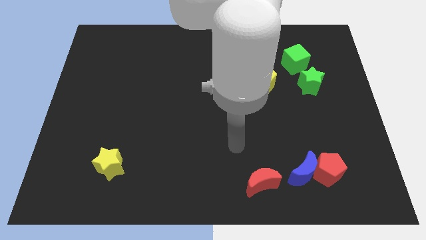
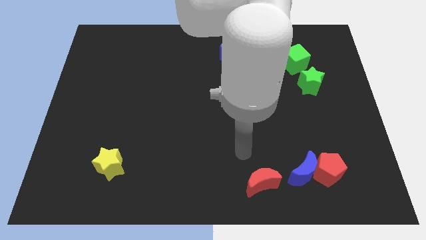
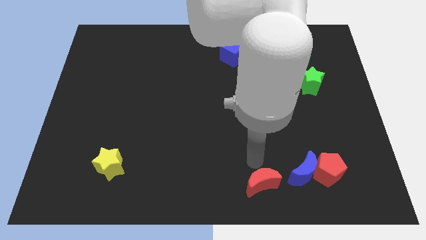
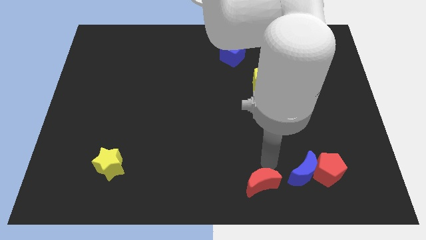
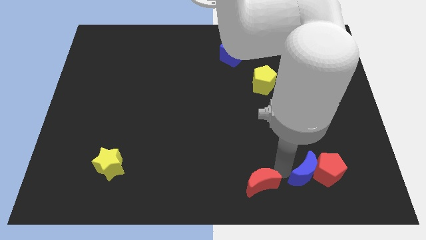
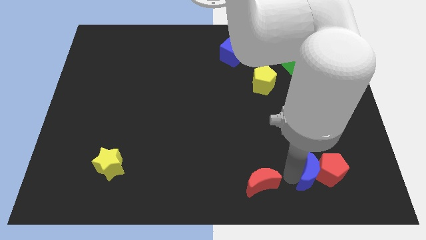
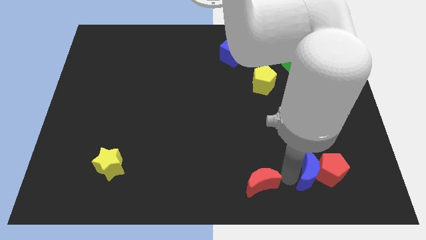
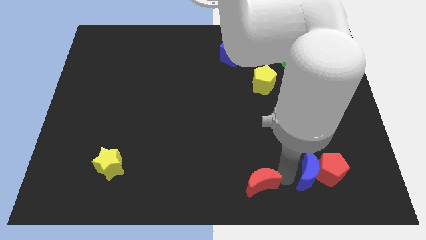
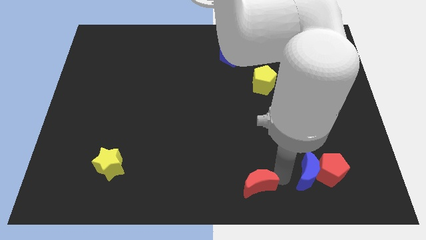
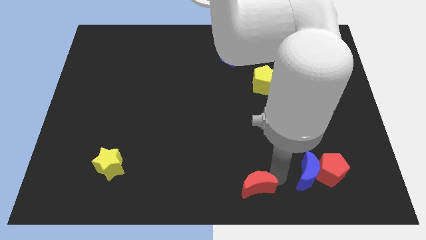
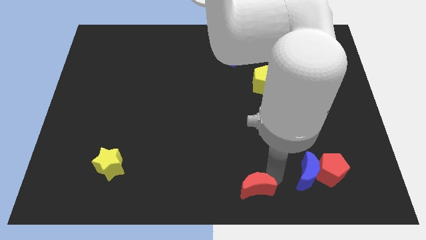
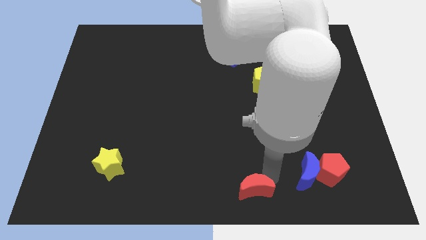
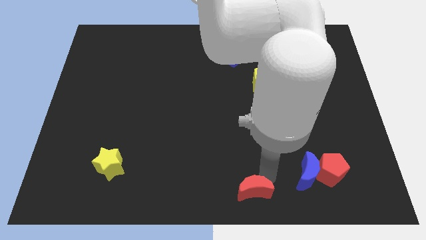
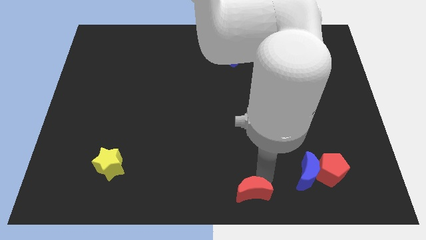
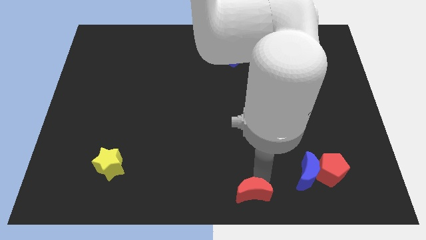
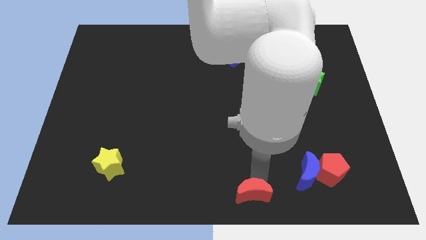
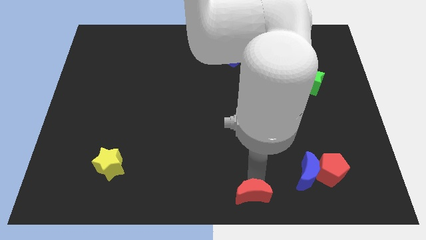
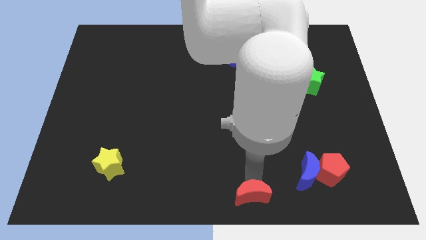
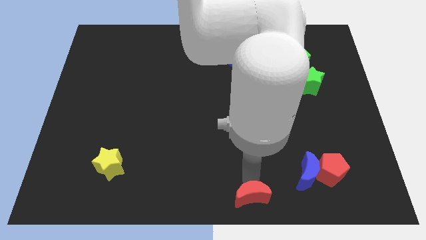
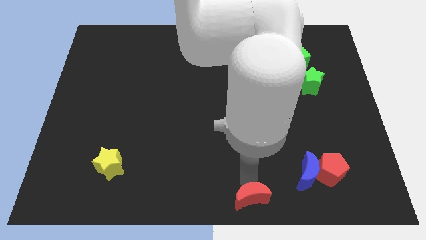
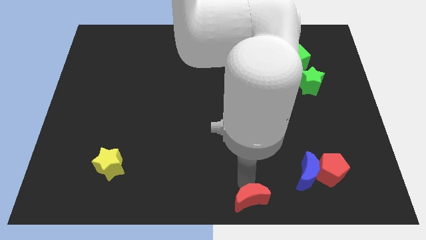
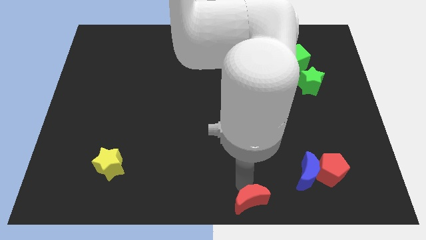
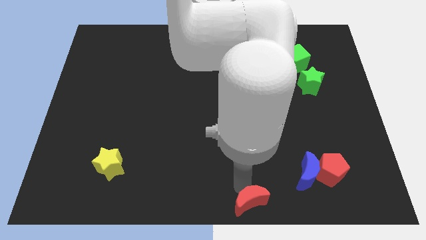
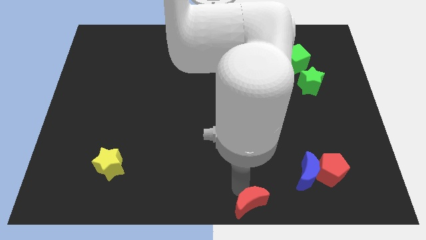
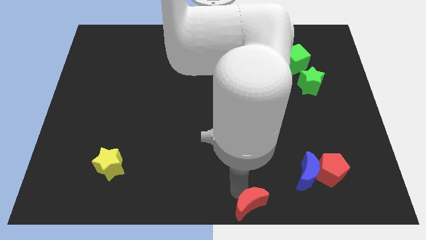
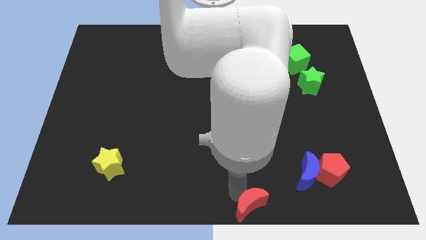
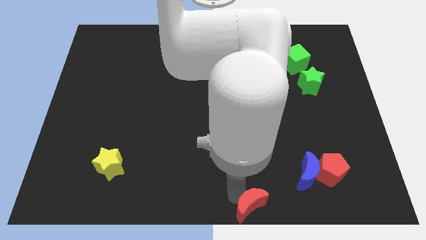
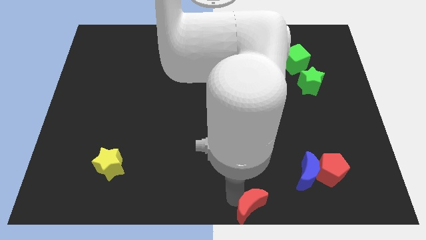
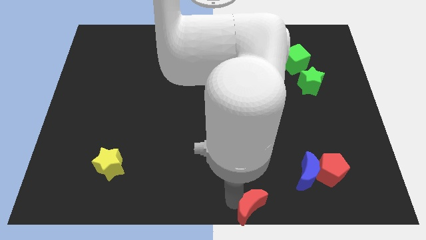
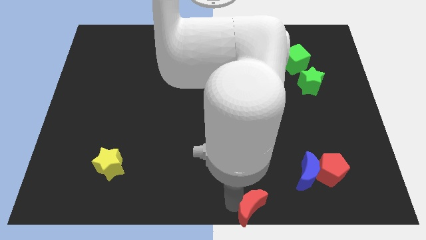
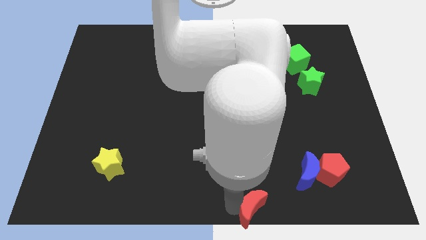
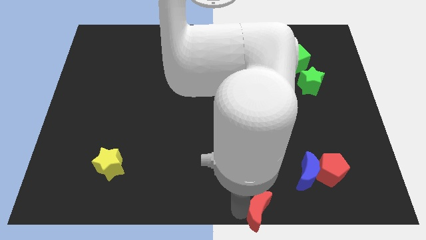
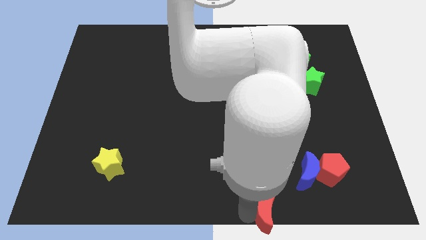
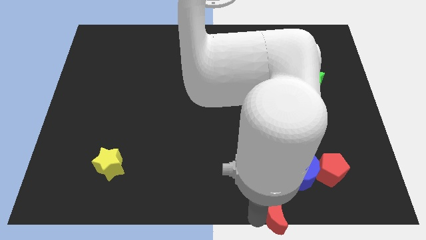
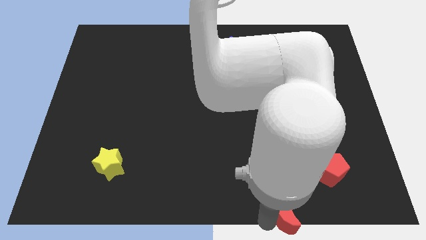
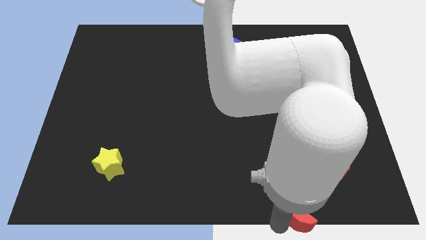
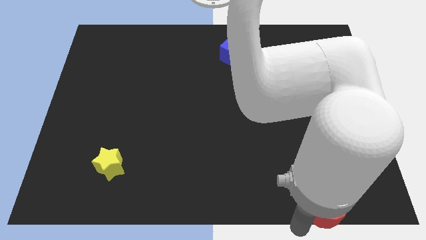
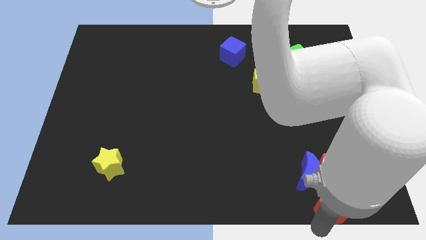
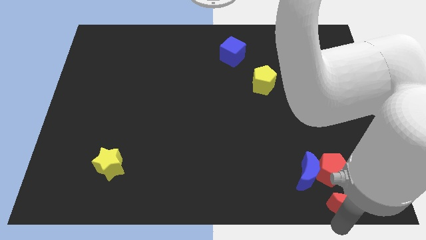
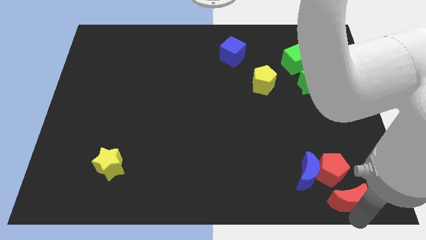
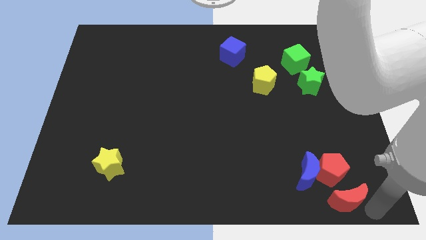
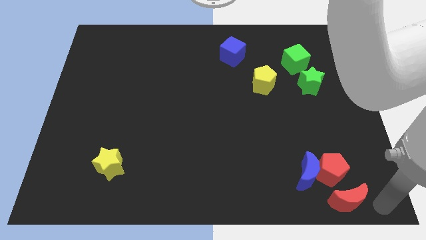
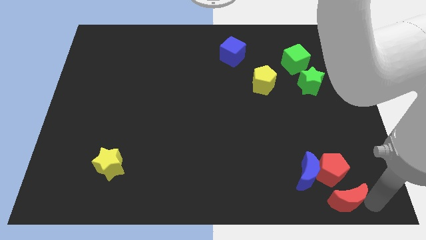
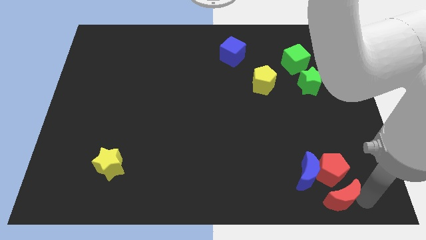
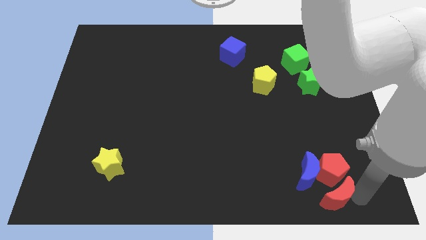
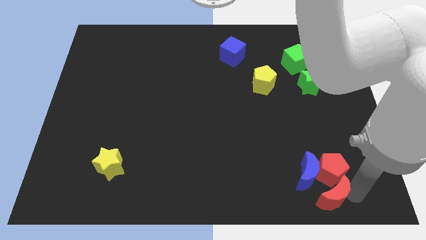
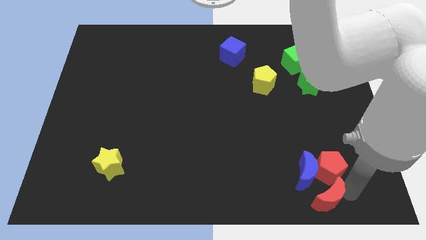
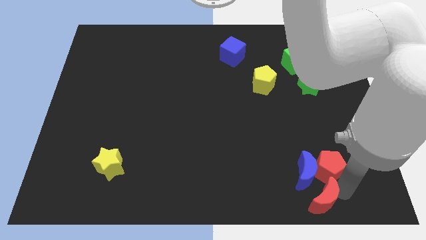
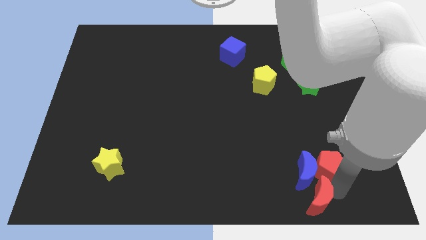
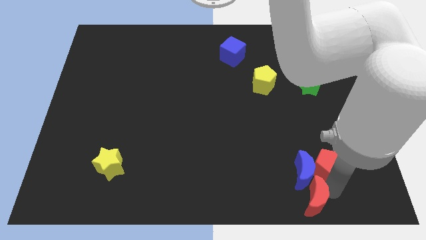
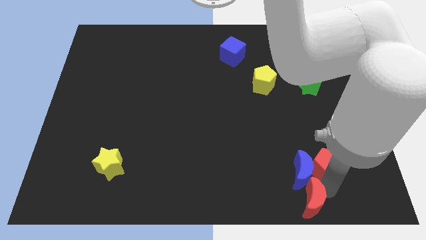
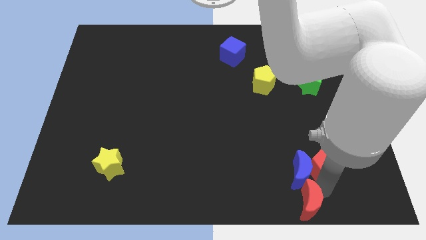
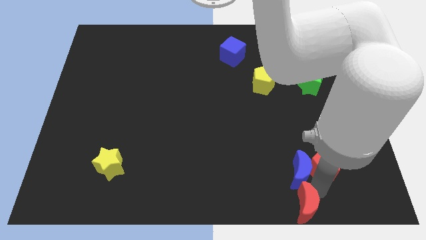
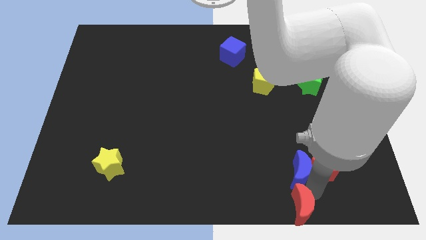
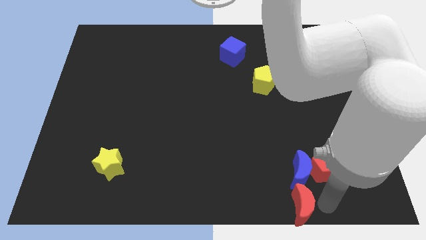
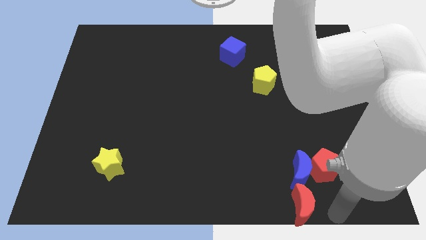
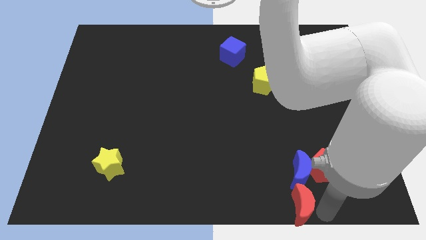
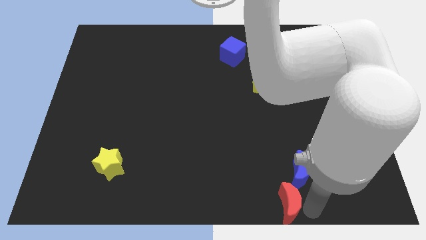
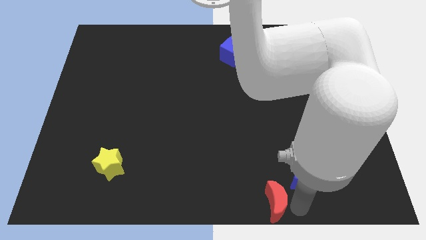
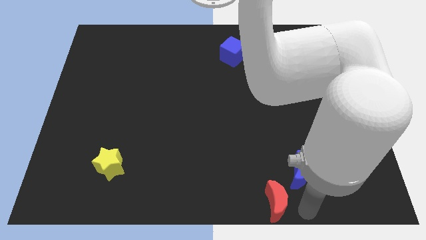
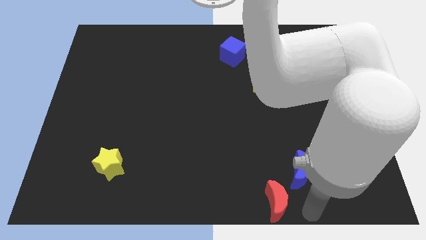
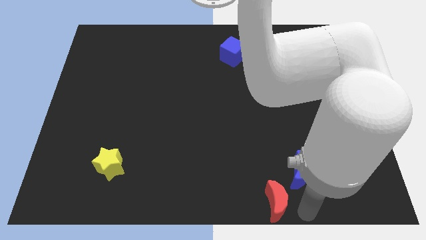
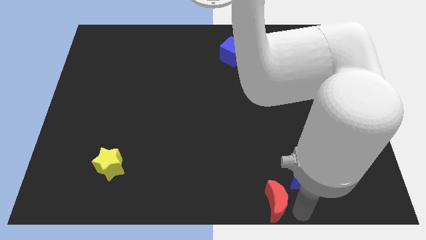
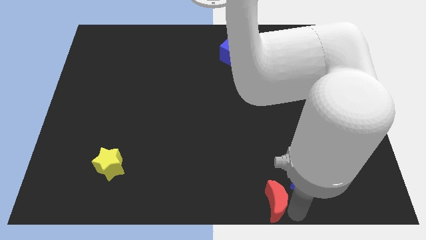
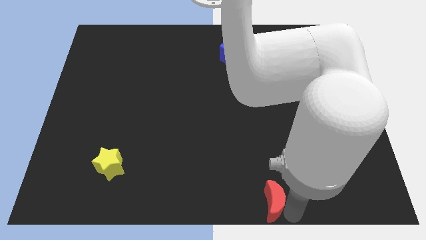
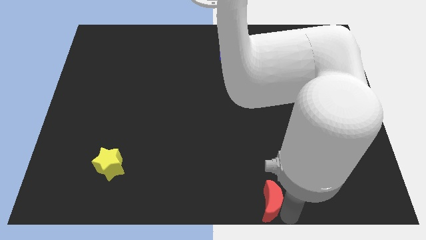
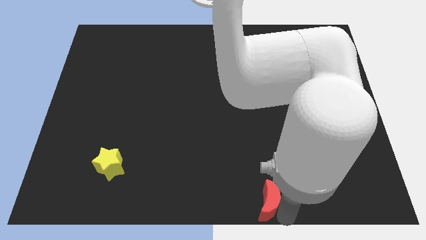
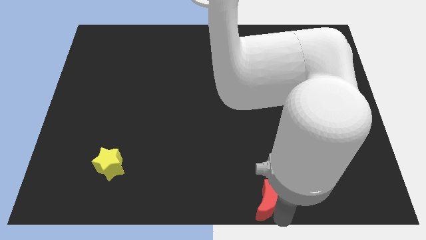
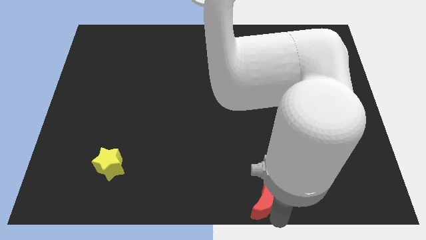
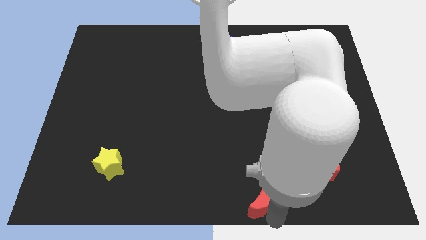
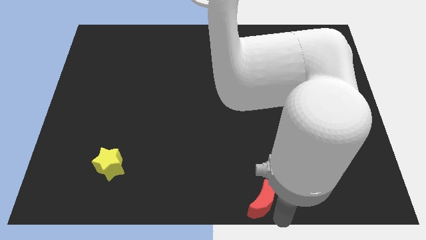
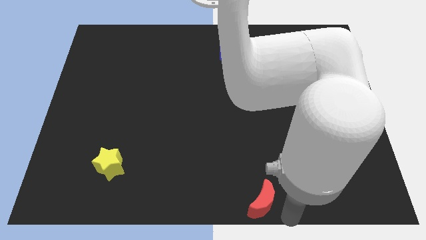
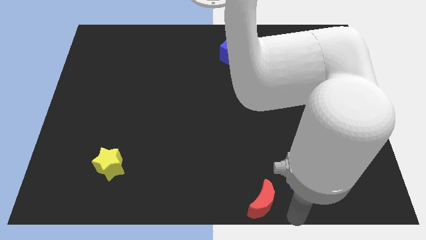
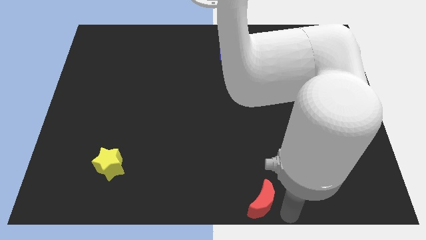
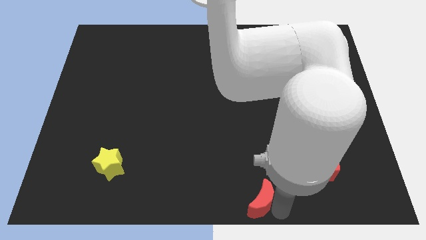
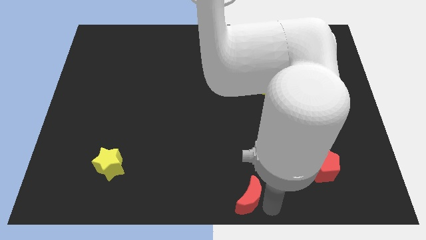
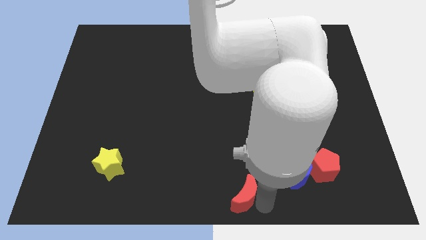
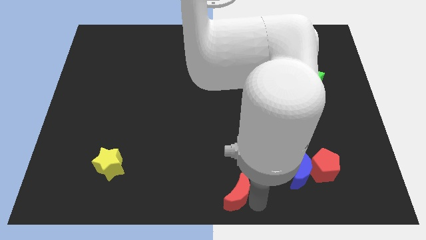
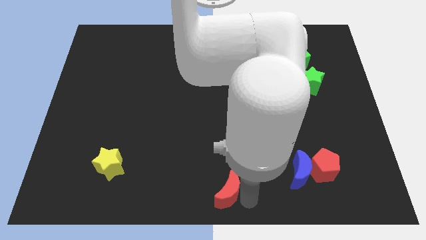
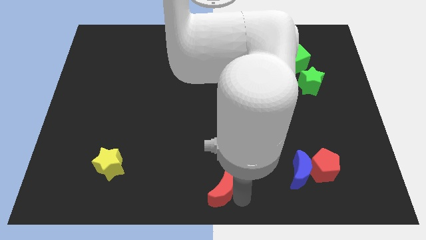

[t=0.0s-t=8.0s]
slide the red moon left a little bit
